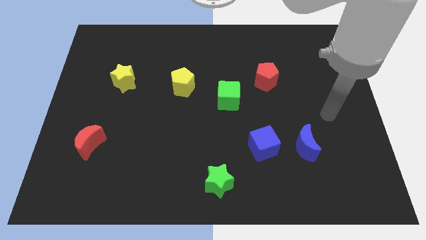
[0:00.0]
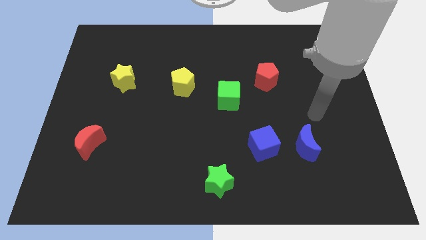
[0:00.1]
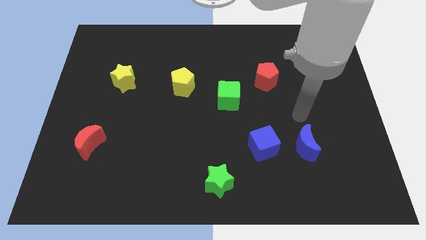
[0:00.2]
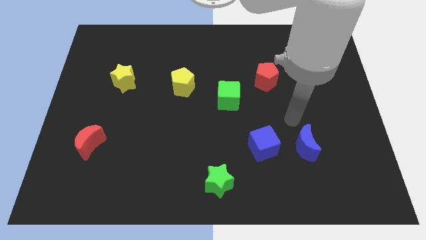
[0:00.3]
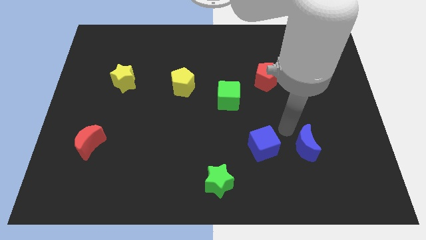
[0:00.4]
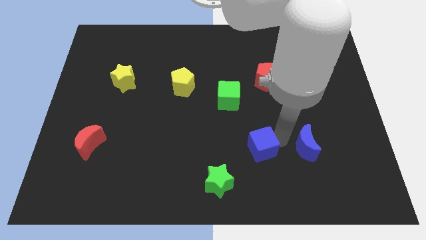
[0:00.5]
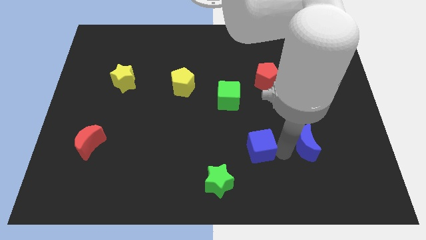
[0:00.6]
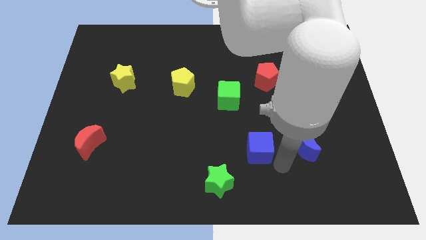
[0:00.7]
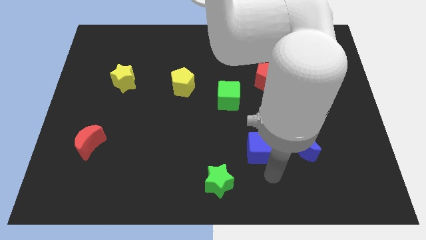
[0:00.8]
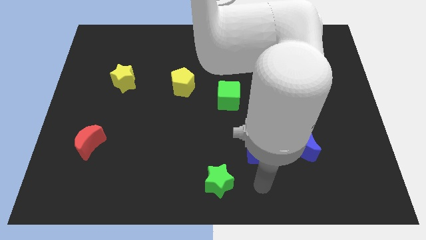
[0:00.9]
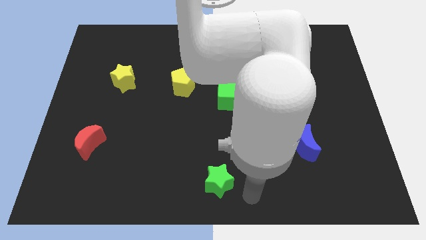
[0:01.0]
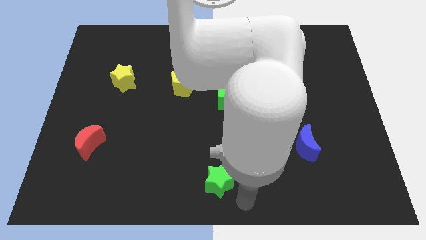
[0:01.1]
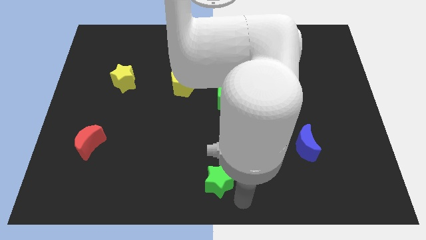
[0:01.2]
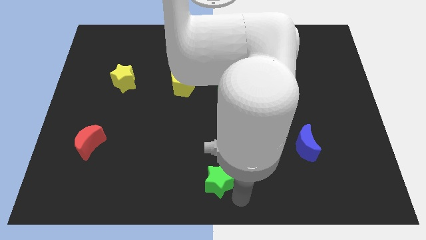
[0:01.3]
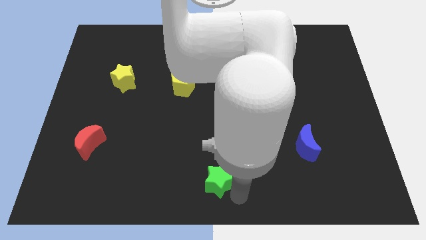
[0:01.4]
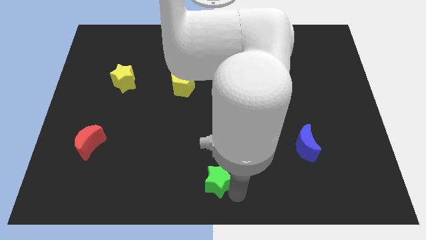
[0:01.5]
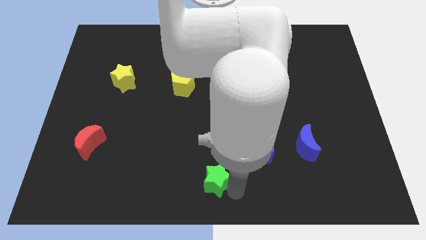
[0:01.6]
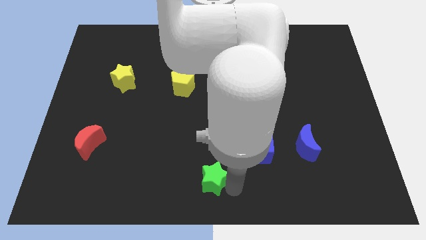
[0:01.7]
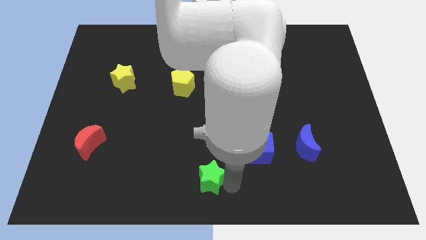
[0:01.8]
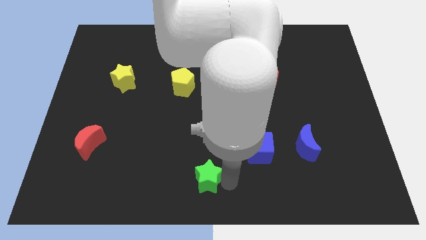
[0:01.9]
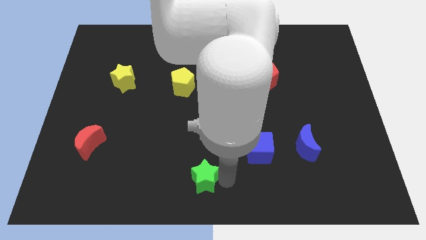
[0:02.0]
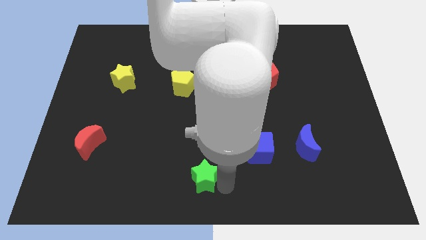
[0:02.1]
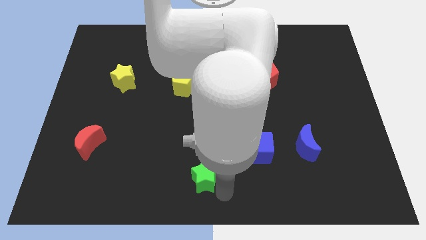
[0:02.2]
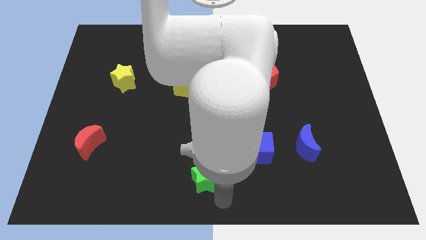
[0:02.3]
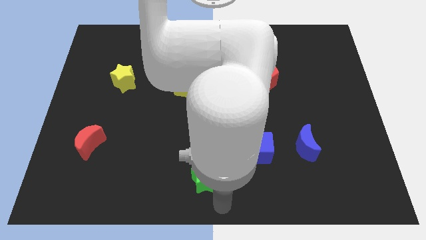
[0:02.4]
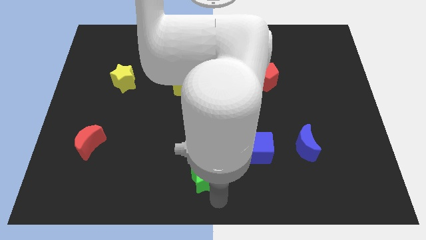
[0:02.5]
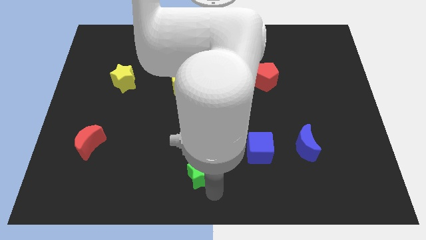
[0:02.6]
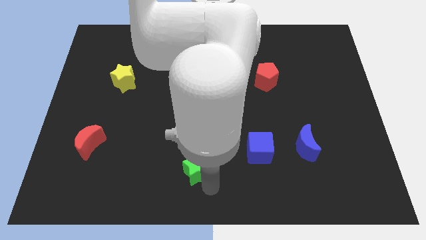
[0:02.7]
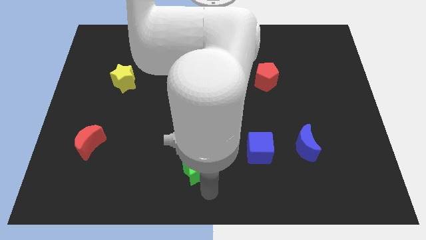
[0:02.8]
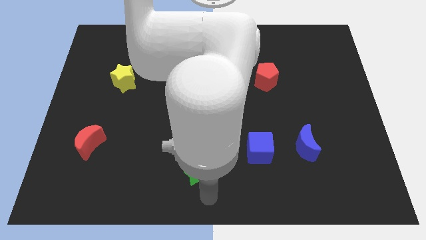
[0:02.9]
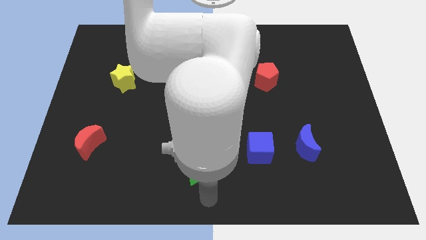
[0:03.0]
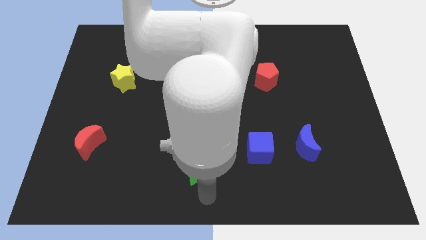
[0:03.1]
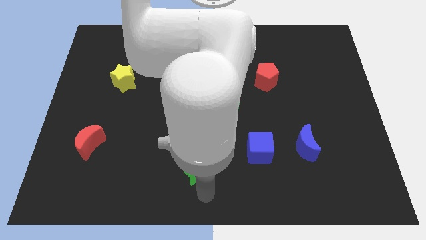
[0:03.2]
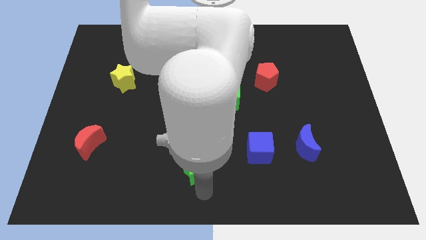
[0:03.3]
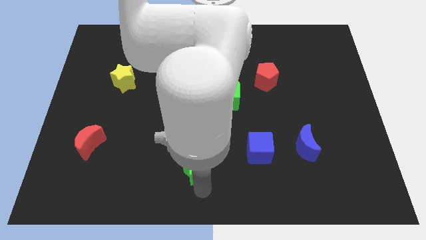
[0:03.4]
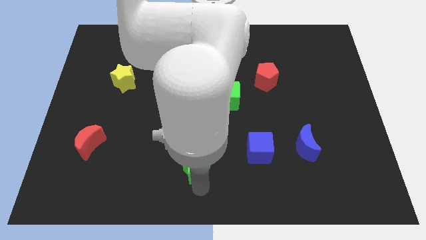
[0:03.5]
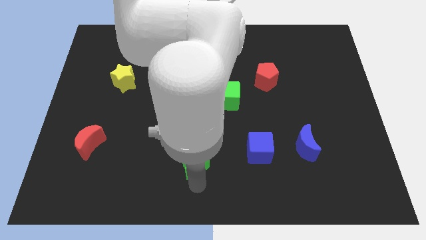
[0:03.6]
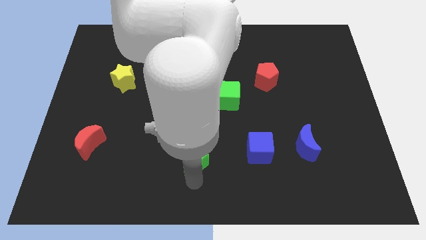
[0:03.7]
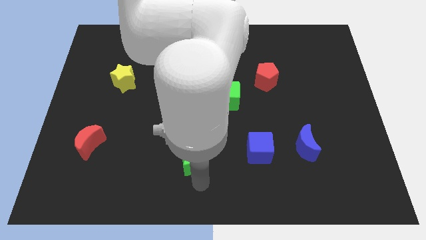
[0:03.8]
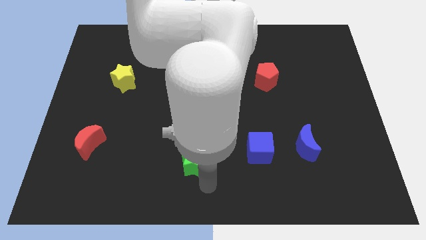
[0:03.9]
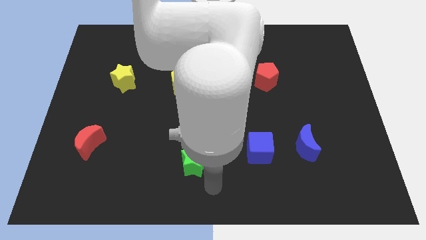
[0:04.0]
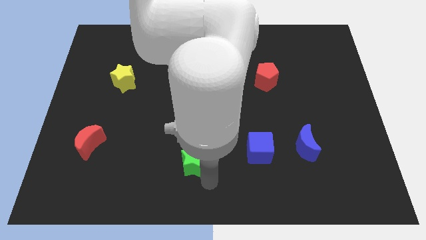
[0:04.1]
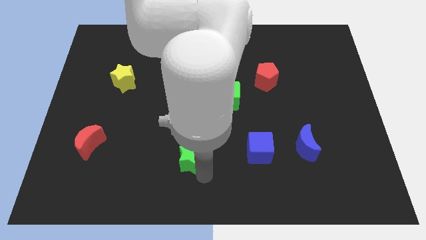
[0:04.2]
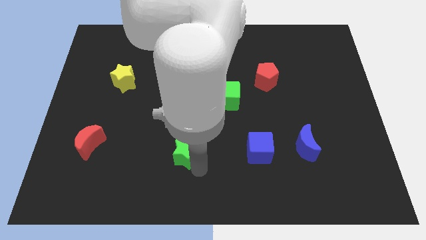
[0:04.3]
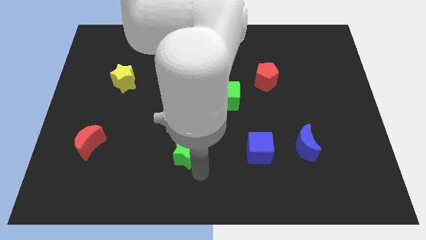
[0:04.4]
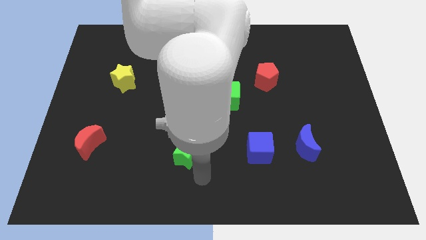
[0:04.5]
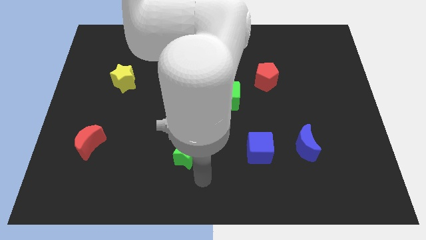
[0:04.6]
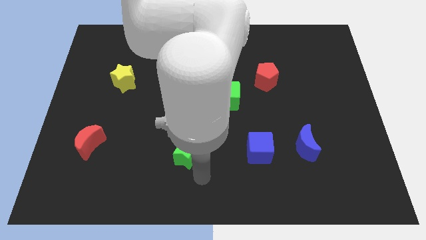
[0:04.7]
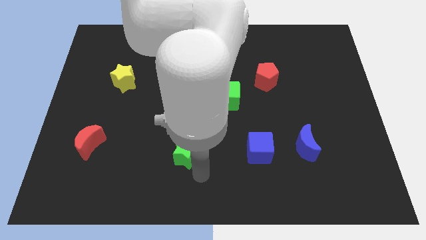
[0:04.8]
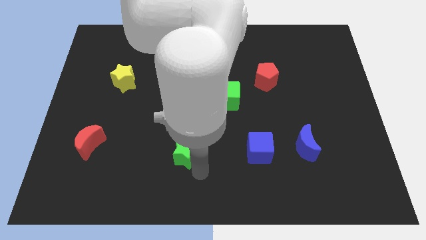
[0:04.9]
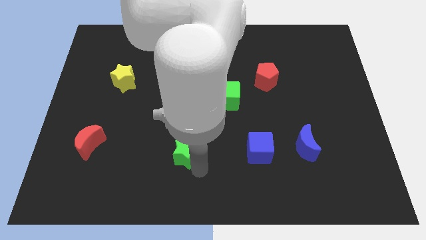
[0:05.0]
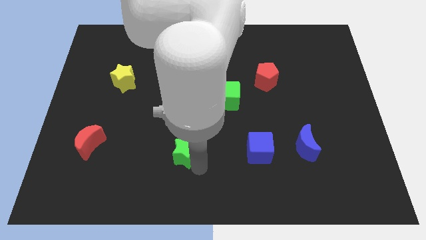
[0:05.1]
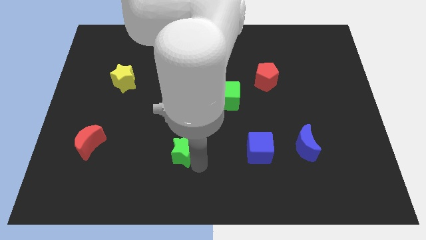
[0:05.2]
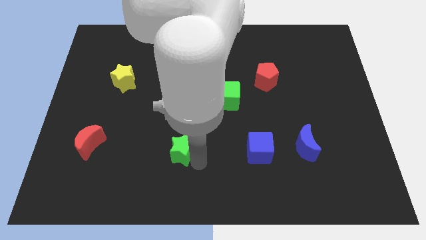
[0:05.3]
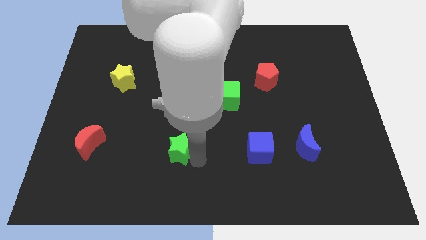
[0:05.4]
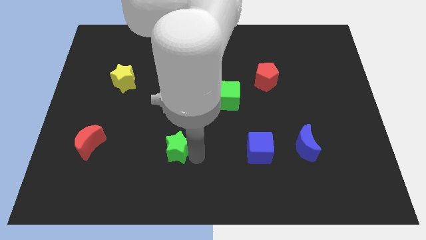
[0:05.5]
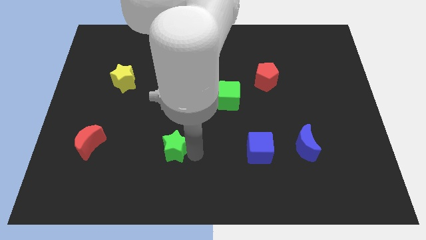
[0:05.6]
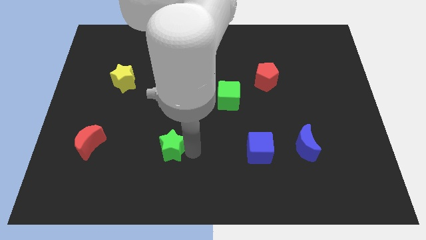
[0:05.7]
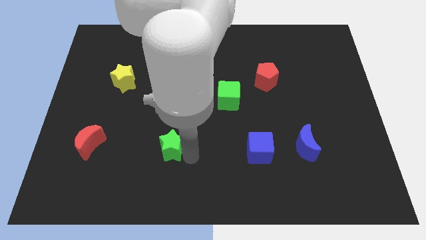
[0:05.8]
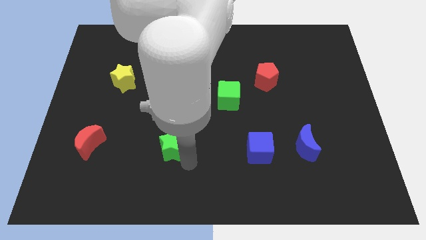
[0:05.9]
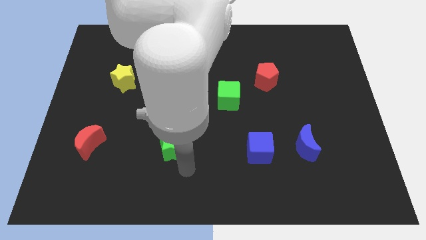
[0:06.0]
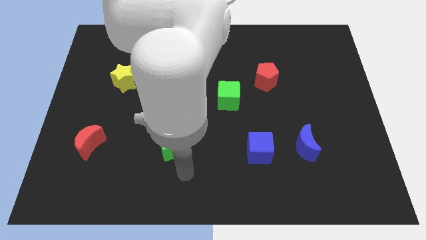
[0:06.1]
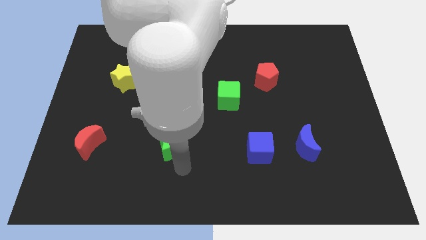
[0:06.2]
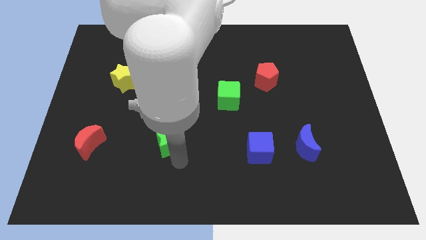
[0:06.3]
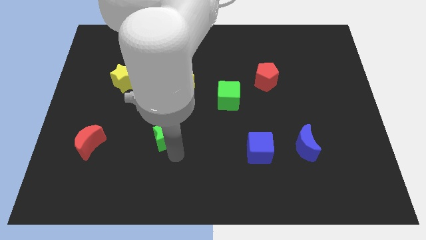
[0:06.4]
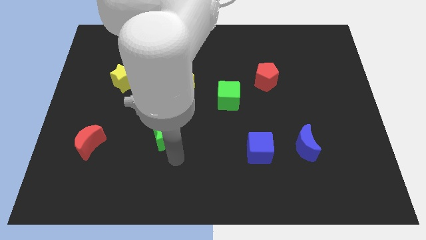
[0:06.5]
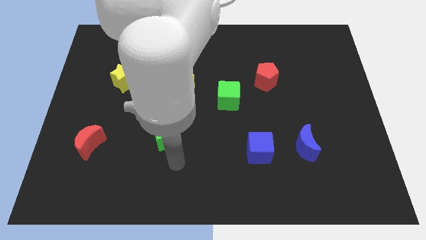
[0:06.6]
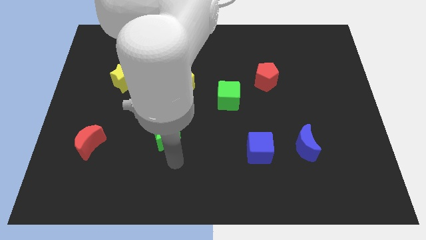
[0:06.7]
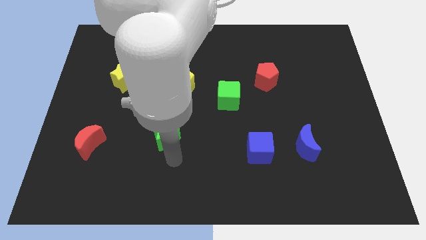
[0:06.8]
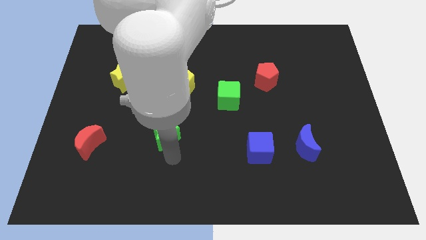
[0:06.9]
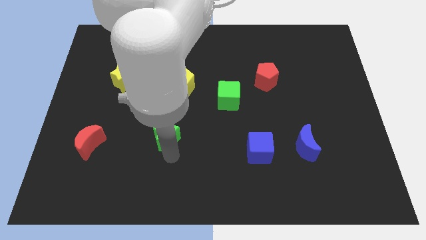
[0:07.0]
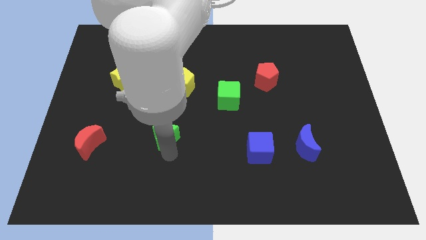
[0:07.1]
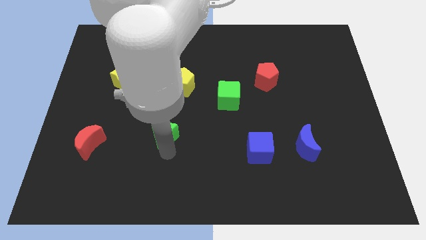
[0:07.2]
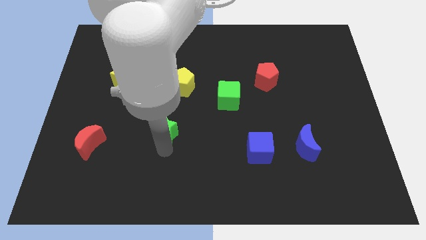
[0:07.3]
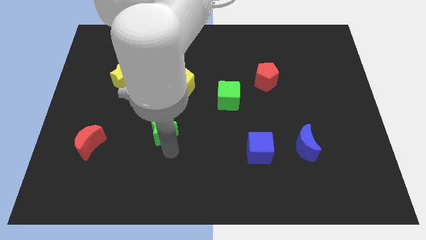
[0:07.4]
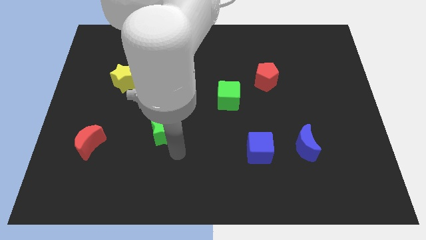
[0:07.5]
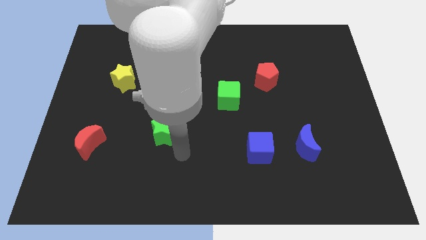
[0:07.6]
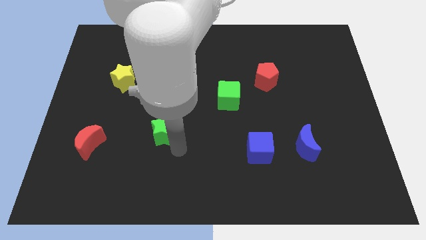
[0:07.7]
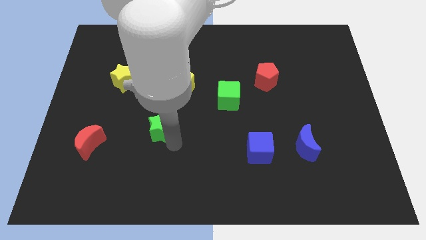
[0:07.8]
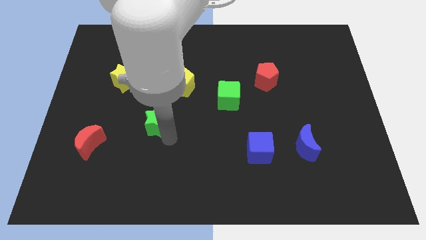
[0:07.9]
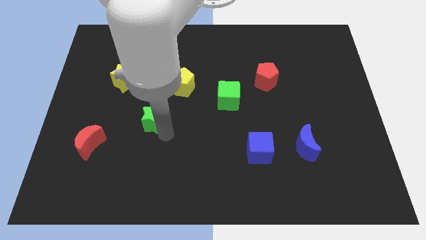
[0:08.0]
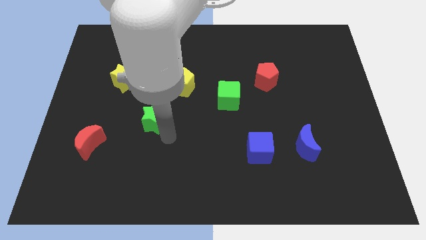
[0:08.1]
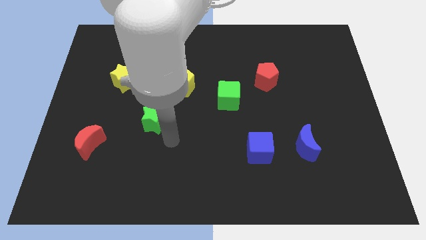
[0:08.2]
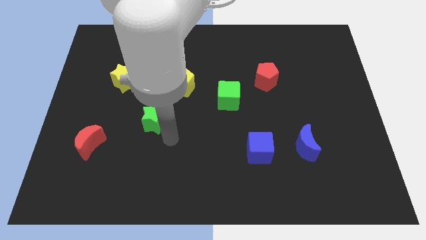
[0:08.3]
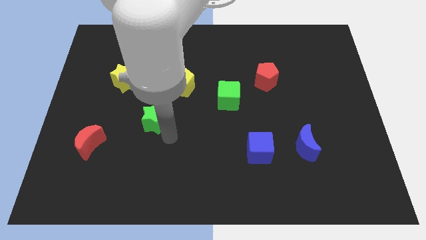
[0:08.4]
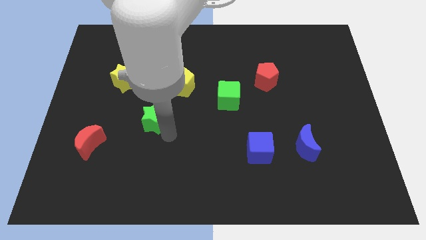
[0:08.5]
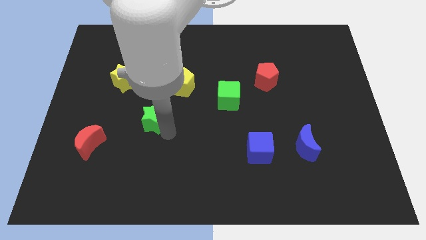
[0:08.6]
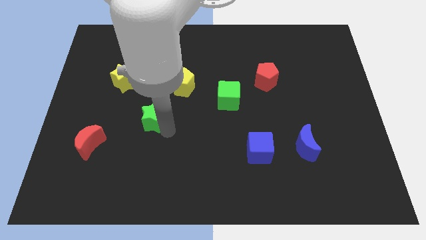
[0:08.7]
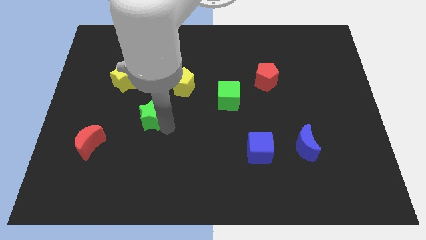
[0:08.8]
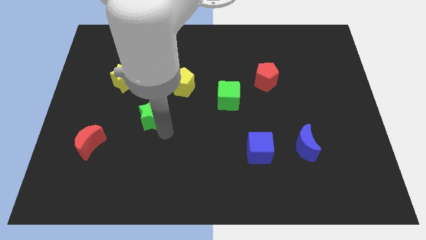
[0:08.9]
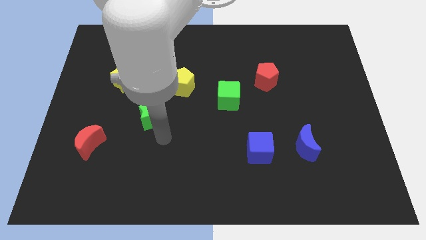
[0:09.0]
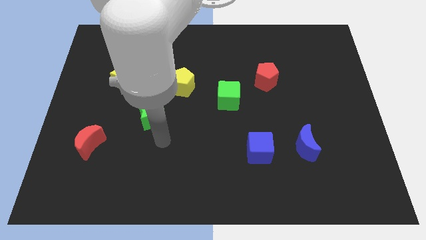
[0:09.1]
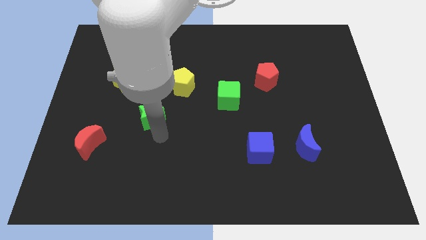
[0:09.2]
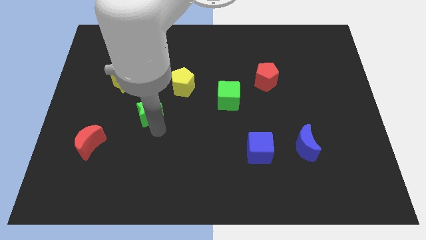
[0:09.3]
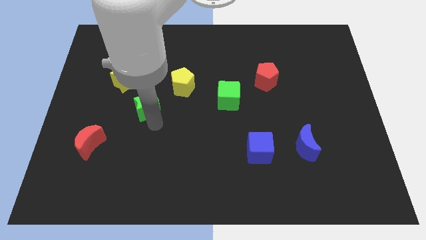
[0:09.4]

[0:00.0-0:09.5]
push the green star to the bottom right of the yellow star
